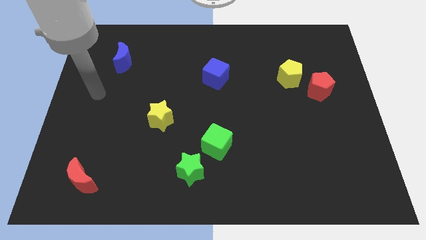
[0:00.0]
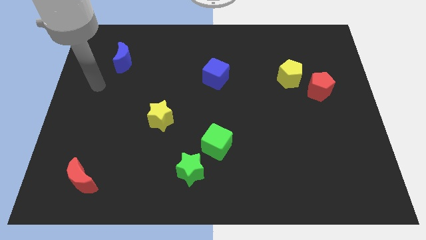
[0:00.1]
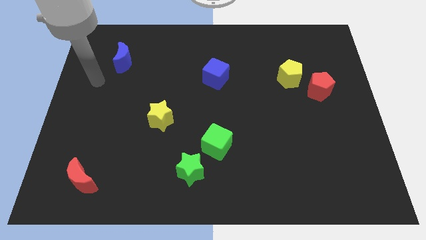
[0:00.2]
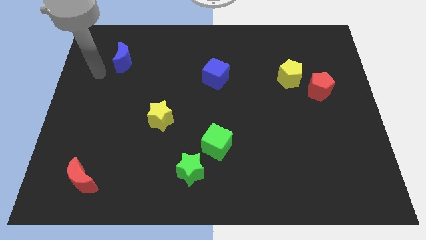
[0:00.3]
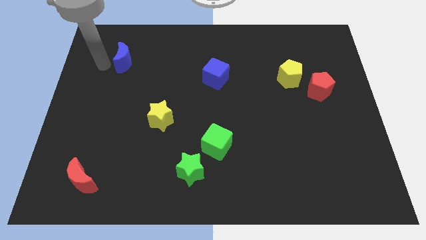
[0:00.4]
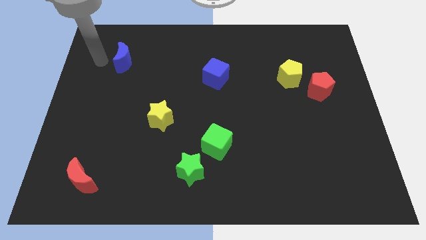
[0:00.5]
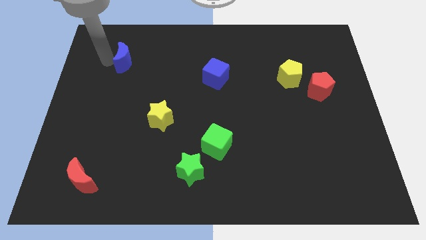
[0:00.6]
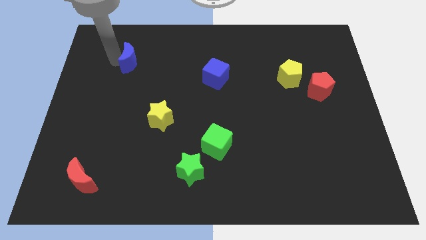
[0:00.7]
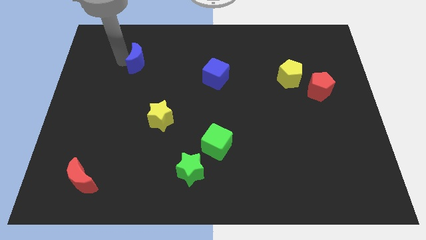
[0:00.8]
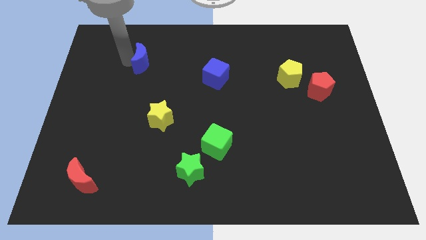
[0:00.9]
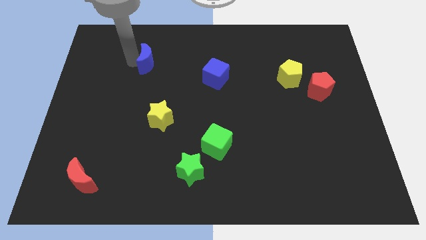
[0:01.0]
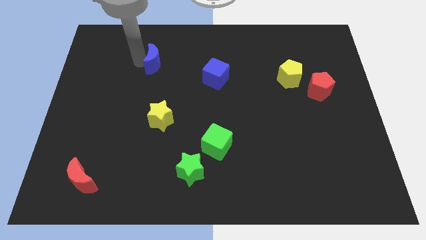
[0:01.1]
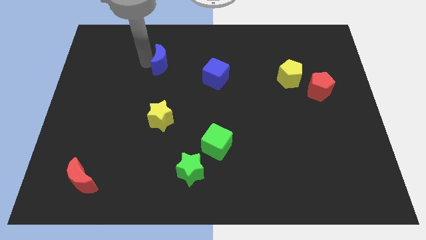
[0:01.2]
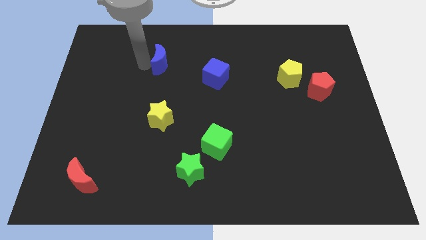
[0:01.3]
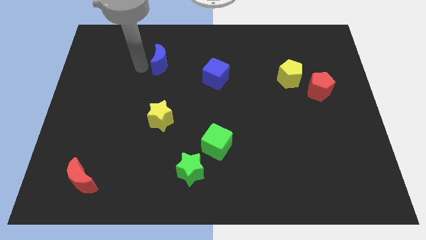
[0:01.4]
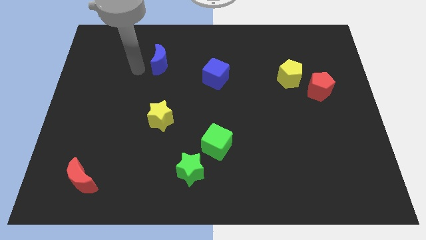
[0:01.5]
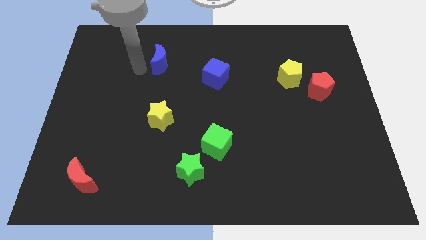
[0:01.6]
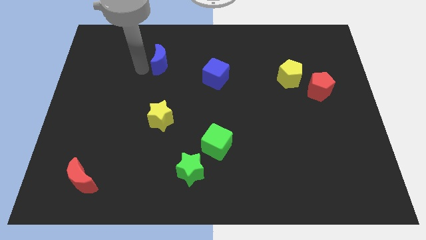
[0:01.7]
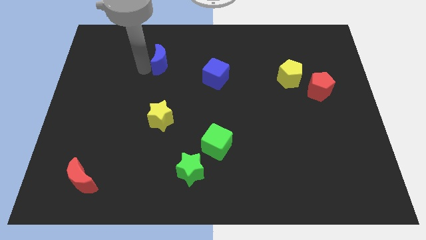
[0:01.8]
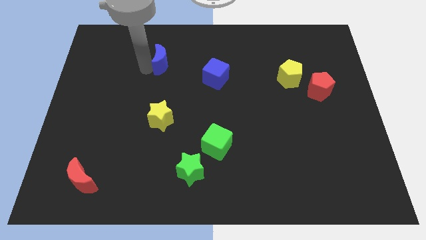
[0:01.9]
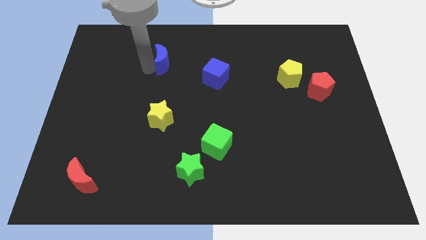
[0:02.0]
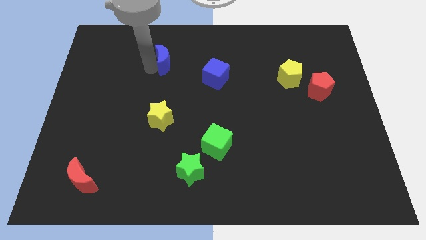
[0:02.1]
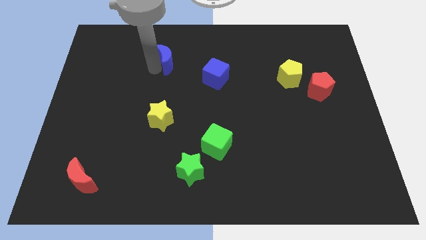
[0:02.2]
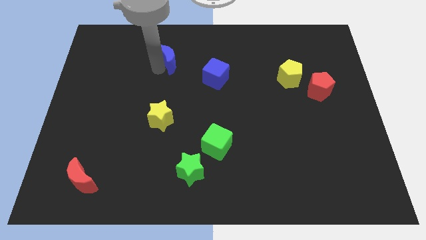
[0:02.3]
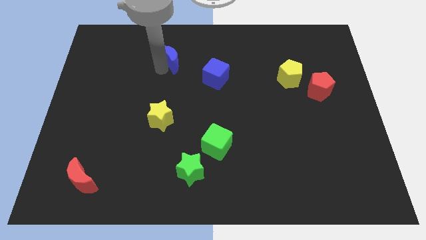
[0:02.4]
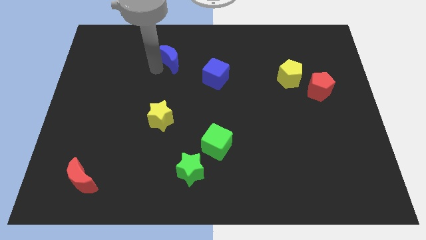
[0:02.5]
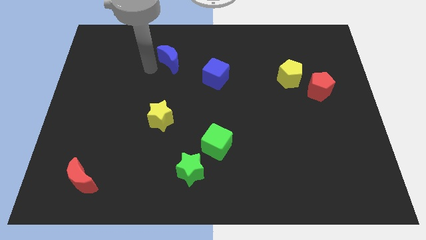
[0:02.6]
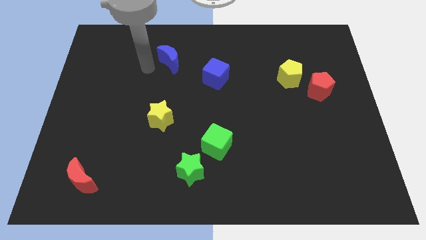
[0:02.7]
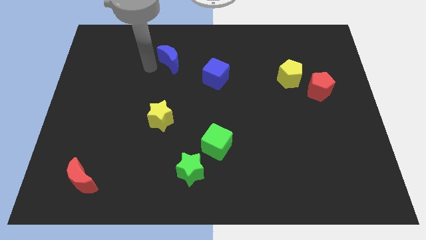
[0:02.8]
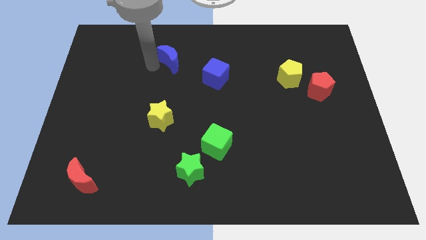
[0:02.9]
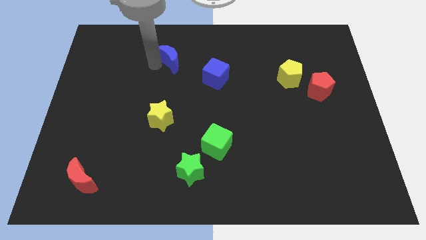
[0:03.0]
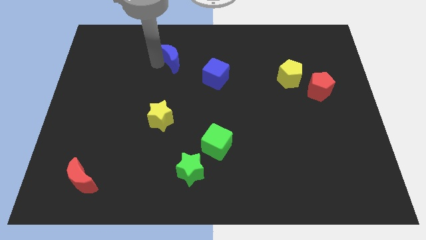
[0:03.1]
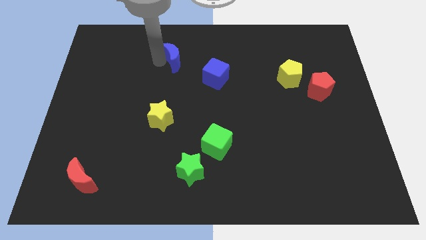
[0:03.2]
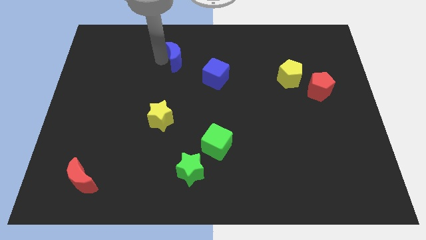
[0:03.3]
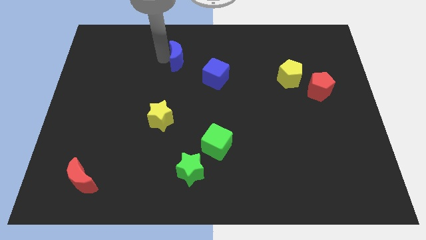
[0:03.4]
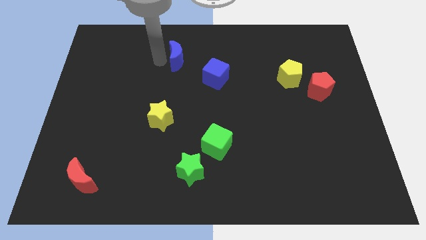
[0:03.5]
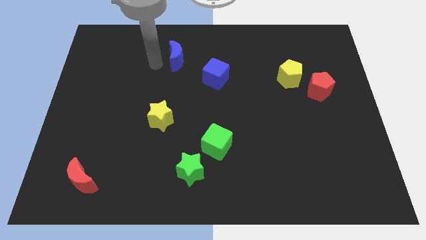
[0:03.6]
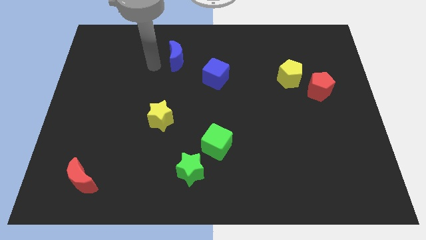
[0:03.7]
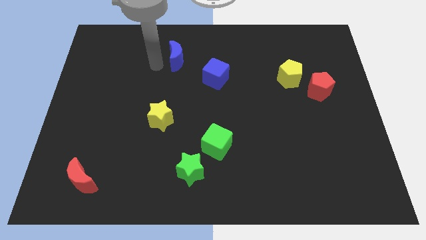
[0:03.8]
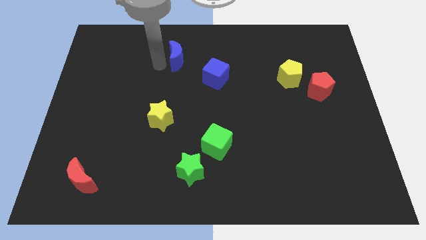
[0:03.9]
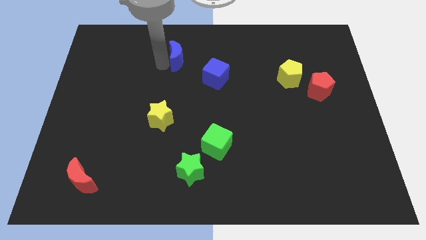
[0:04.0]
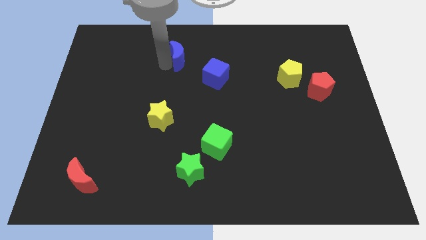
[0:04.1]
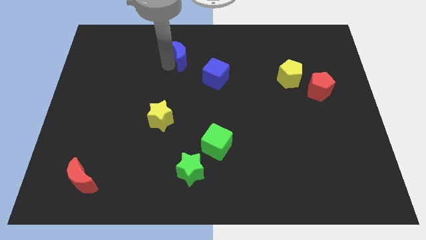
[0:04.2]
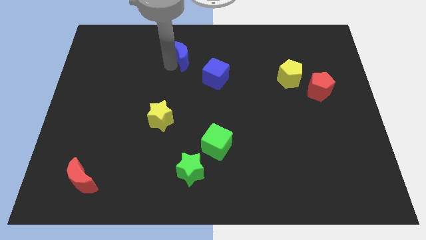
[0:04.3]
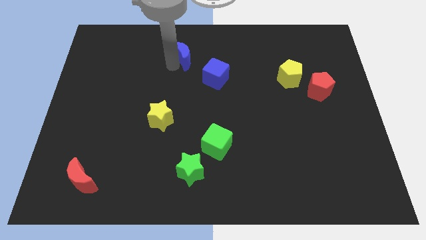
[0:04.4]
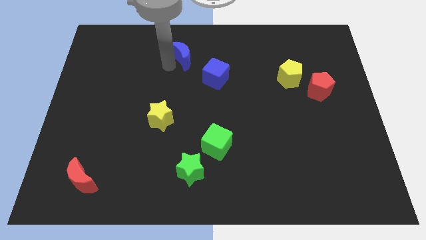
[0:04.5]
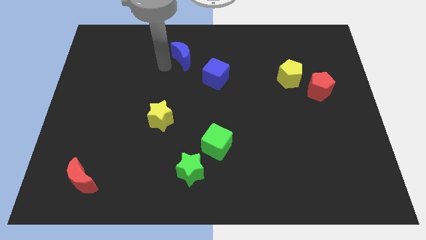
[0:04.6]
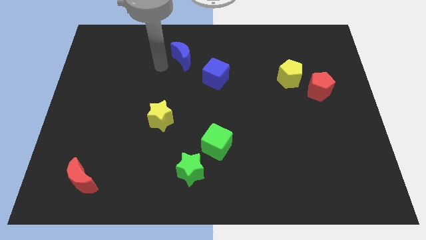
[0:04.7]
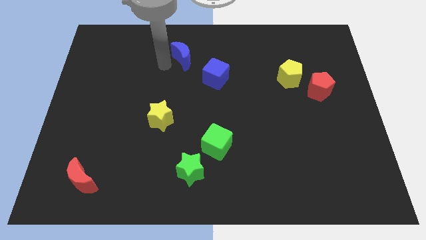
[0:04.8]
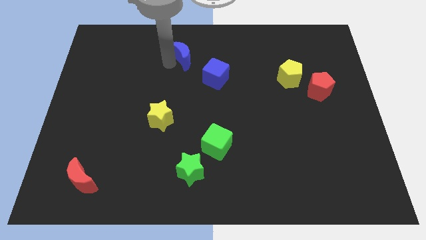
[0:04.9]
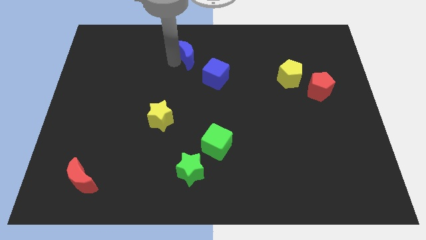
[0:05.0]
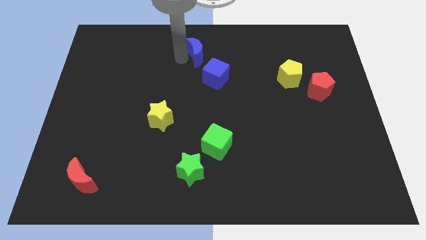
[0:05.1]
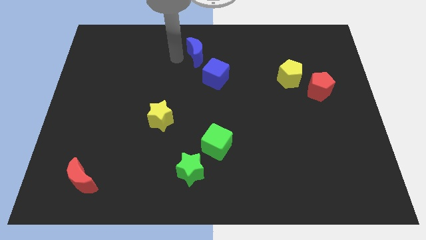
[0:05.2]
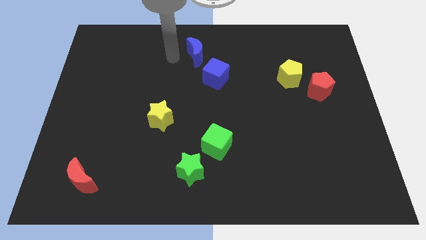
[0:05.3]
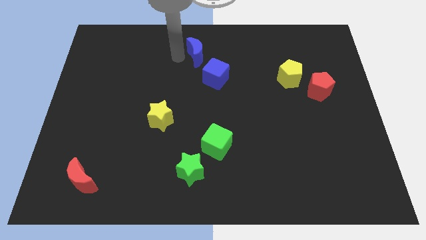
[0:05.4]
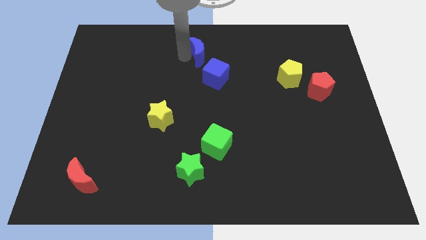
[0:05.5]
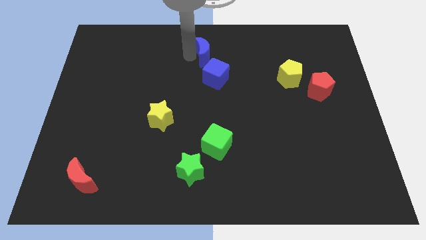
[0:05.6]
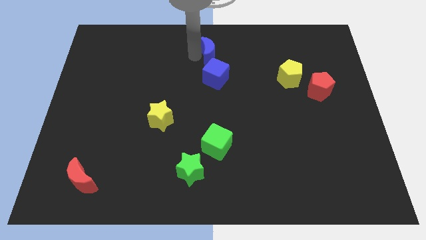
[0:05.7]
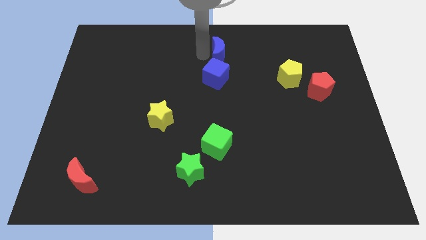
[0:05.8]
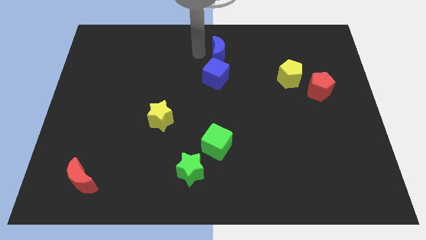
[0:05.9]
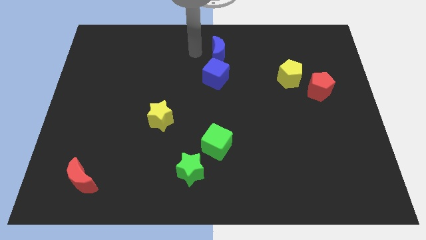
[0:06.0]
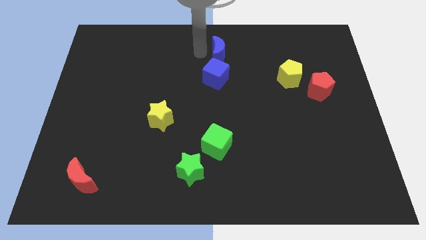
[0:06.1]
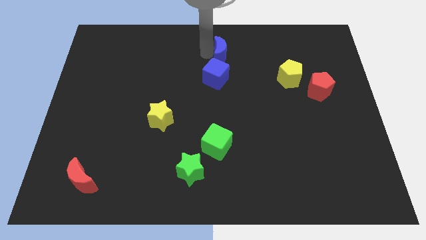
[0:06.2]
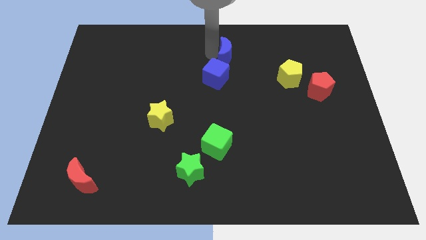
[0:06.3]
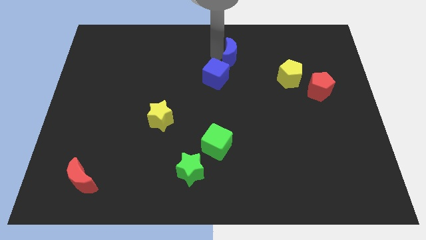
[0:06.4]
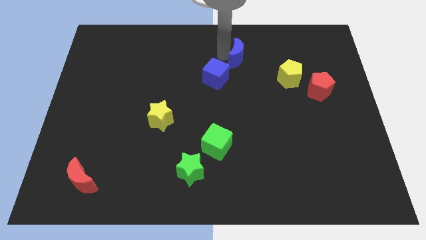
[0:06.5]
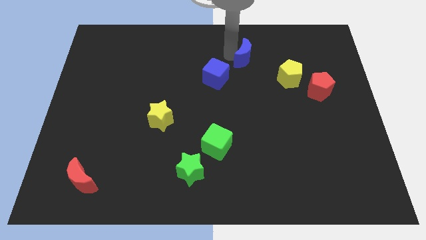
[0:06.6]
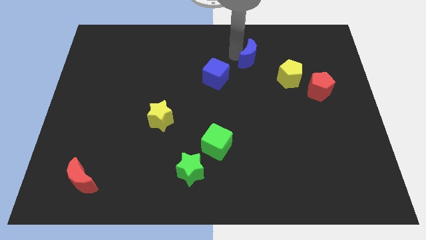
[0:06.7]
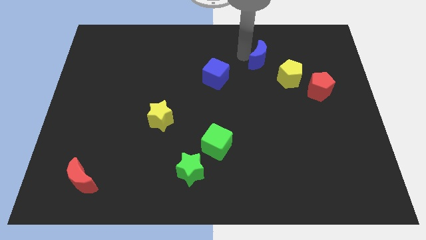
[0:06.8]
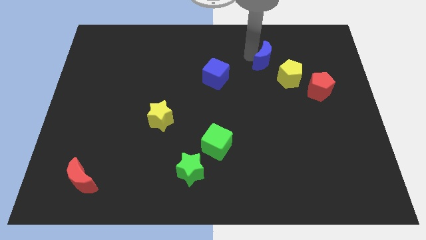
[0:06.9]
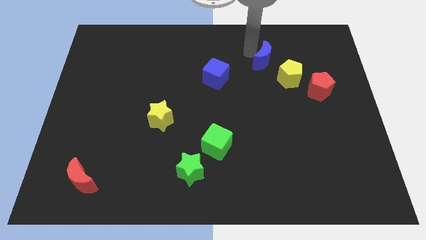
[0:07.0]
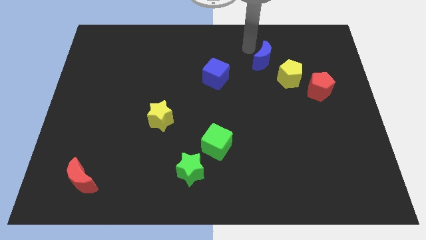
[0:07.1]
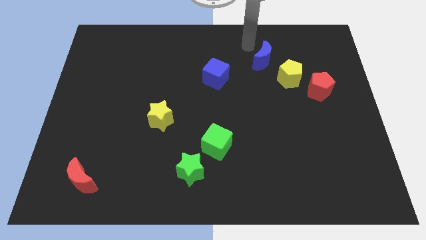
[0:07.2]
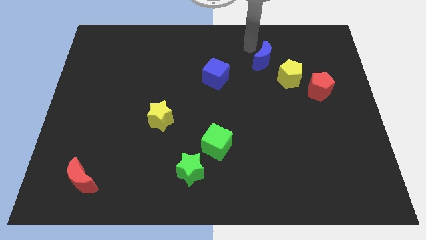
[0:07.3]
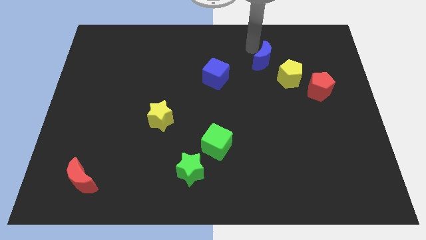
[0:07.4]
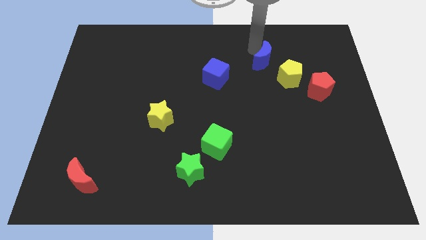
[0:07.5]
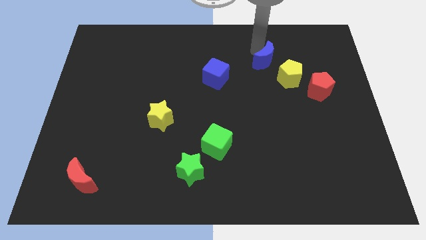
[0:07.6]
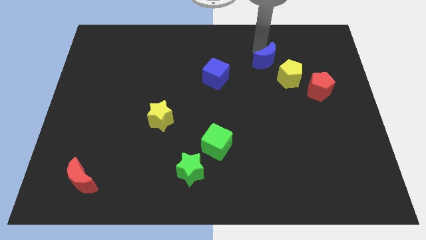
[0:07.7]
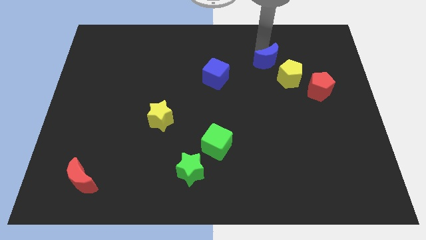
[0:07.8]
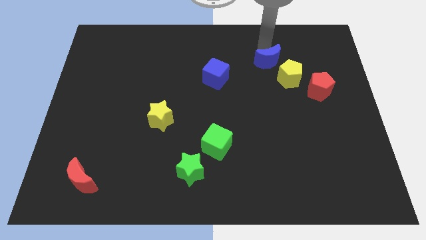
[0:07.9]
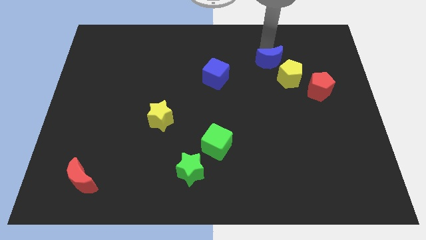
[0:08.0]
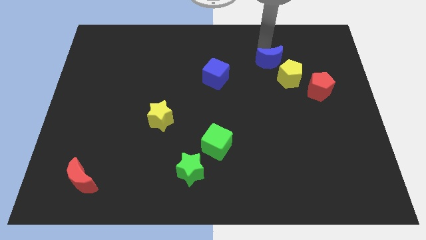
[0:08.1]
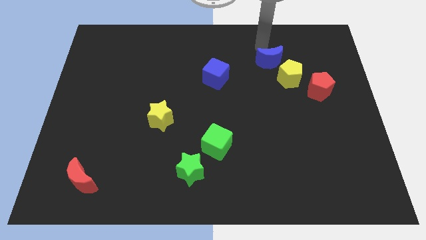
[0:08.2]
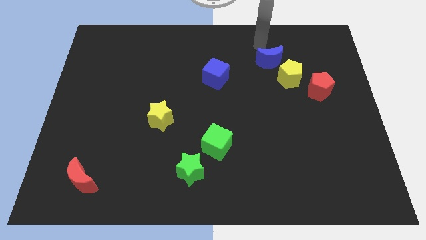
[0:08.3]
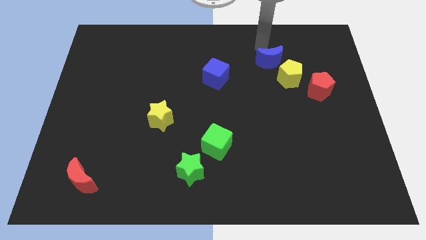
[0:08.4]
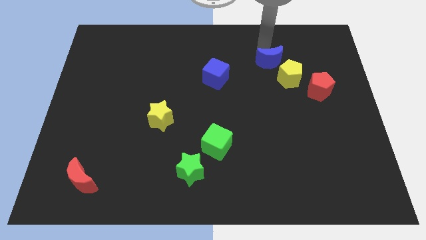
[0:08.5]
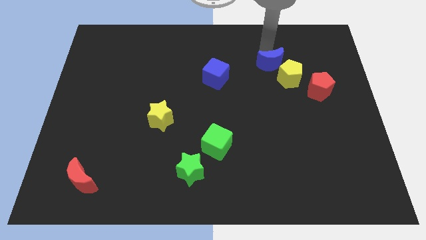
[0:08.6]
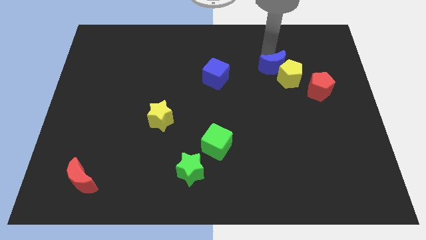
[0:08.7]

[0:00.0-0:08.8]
move the blue moon to the yellow pentagon
